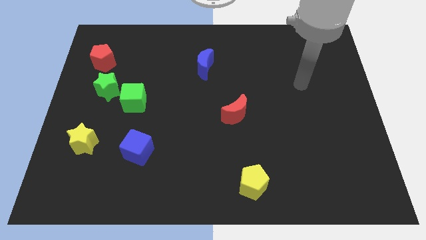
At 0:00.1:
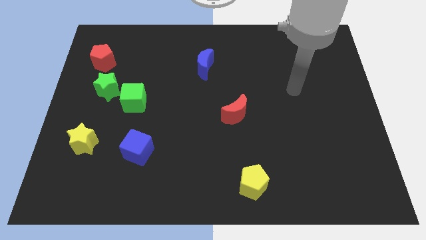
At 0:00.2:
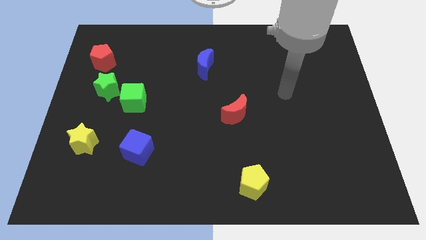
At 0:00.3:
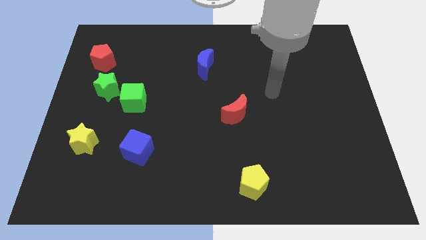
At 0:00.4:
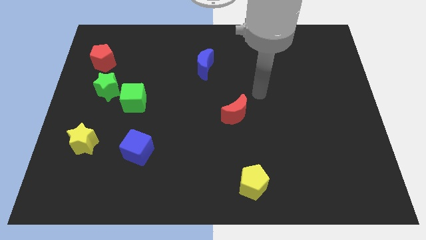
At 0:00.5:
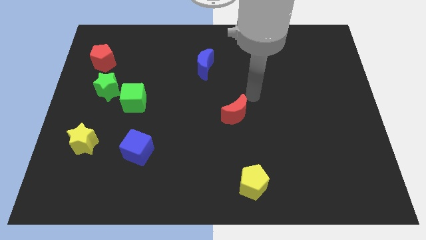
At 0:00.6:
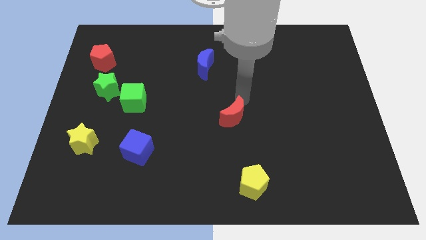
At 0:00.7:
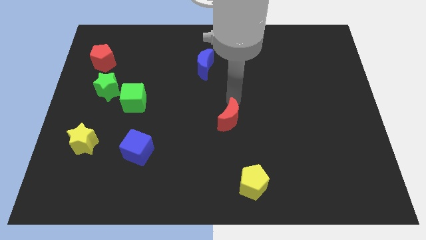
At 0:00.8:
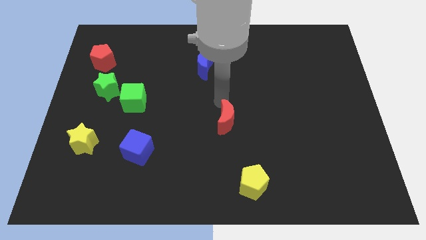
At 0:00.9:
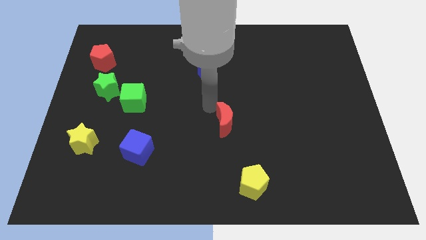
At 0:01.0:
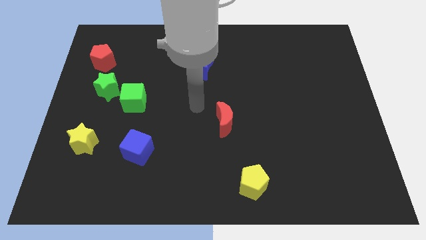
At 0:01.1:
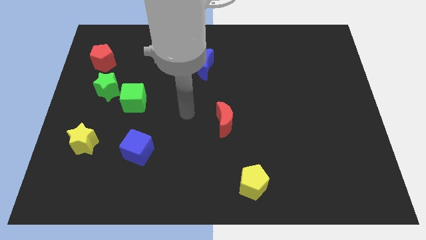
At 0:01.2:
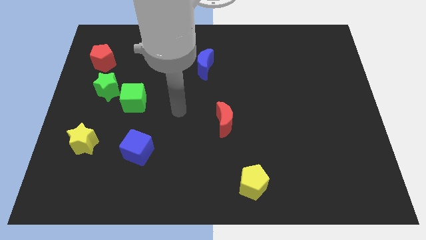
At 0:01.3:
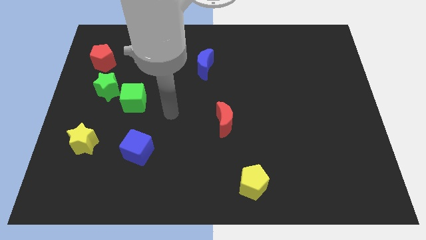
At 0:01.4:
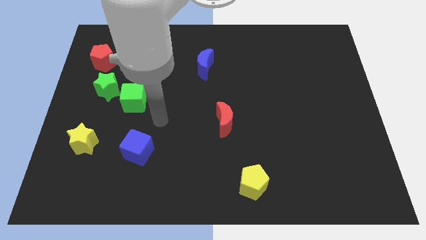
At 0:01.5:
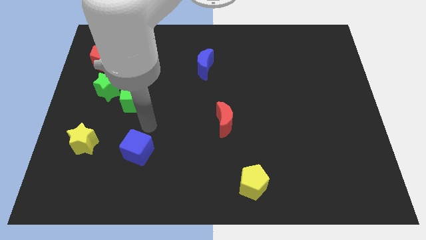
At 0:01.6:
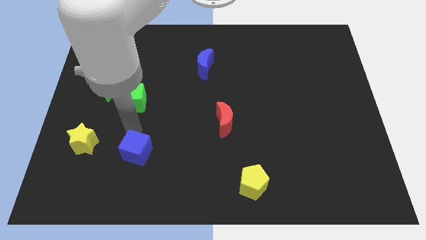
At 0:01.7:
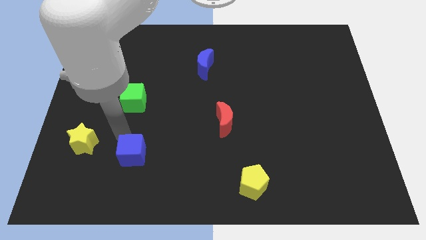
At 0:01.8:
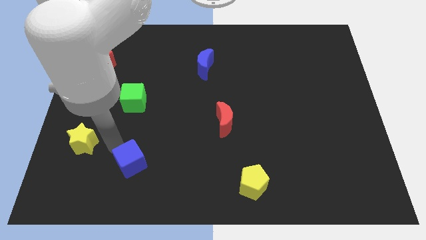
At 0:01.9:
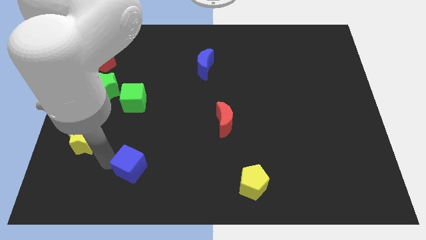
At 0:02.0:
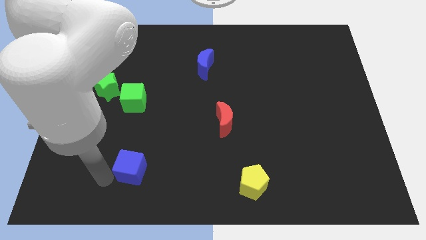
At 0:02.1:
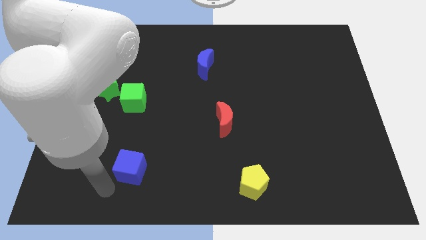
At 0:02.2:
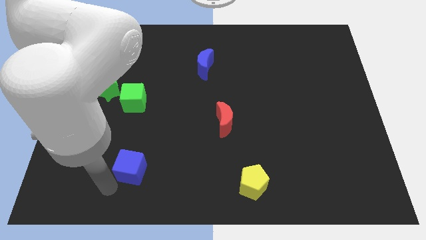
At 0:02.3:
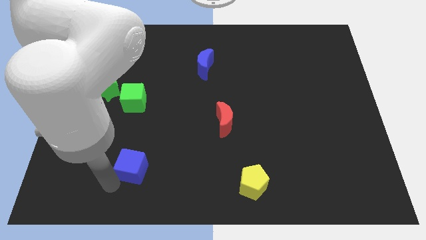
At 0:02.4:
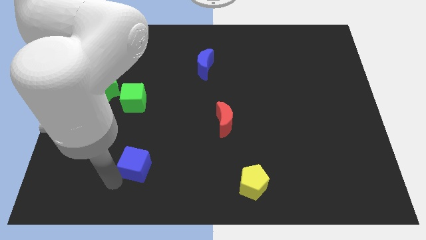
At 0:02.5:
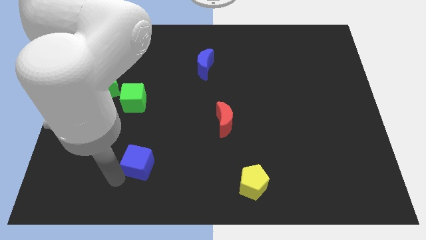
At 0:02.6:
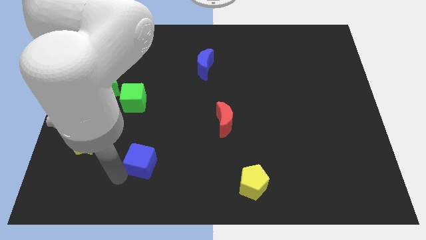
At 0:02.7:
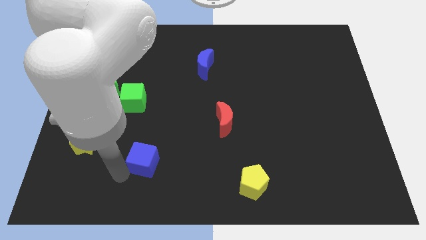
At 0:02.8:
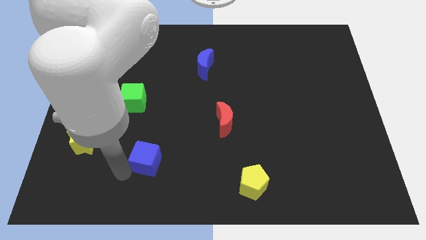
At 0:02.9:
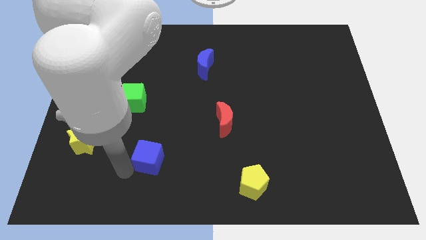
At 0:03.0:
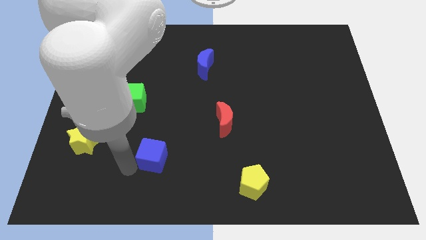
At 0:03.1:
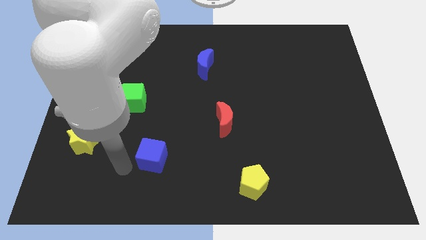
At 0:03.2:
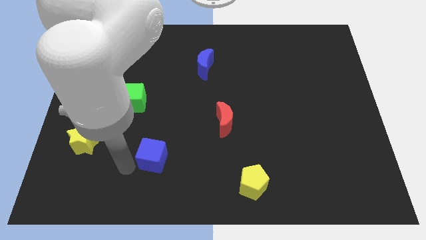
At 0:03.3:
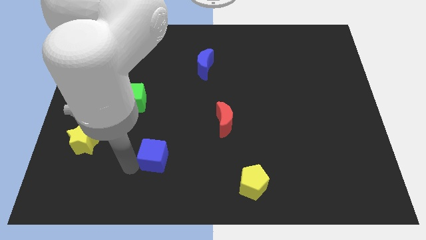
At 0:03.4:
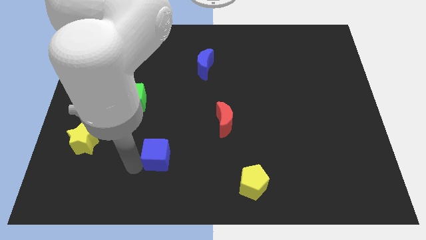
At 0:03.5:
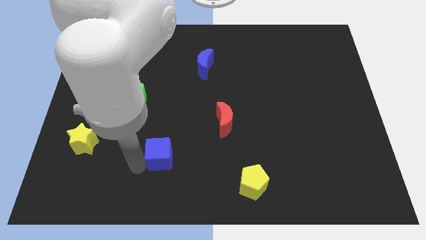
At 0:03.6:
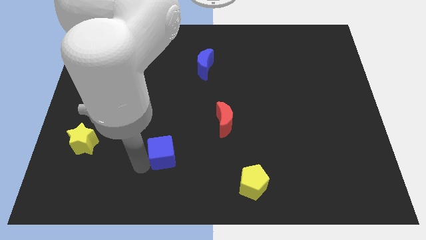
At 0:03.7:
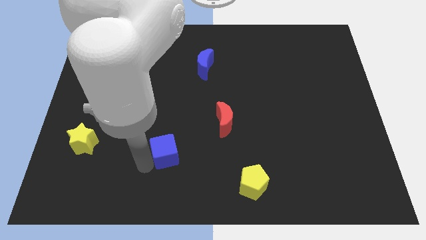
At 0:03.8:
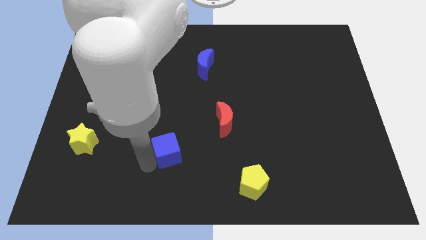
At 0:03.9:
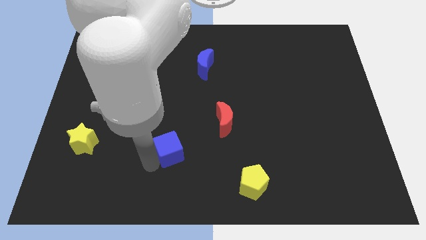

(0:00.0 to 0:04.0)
slightly move the blue cube right

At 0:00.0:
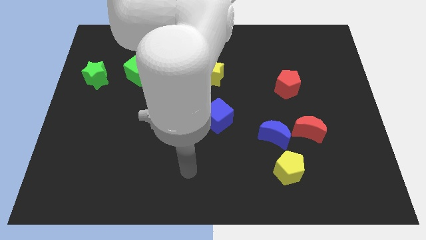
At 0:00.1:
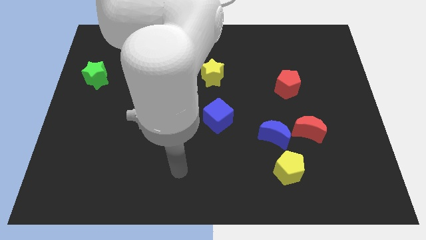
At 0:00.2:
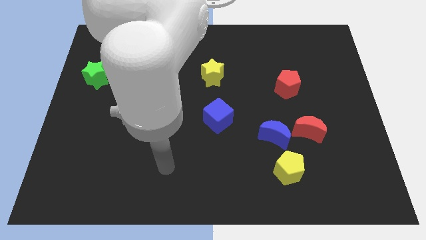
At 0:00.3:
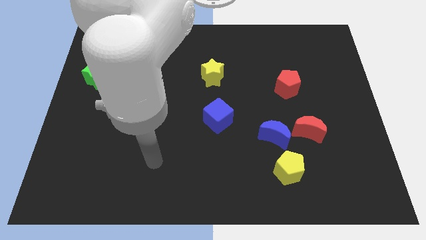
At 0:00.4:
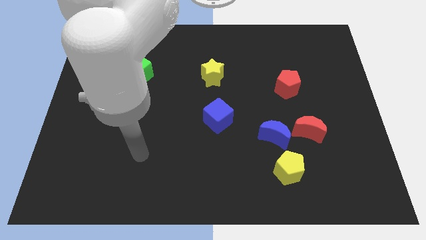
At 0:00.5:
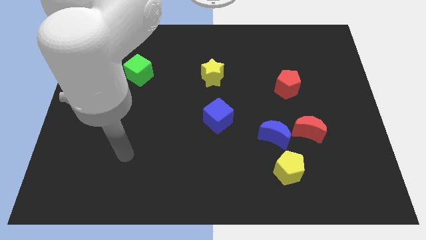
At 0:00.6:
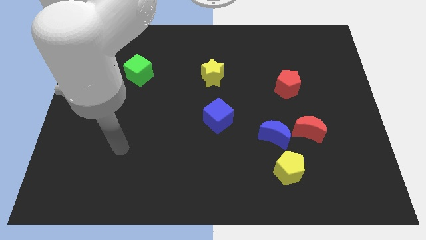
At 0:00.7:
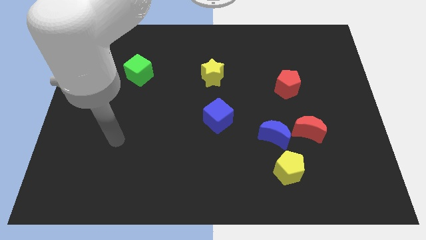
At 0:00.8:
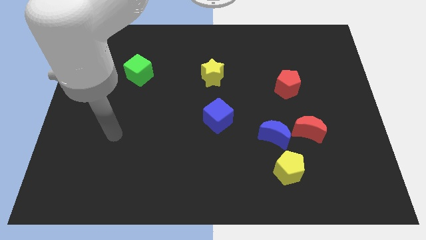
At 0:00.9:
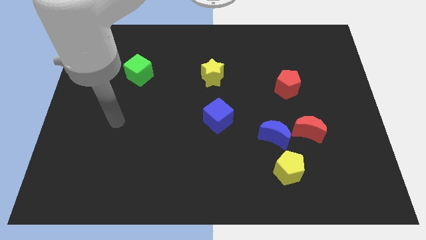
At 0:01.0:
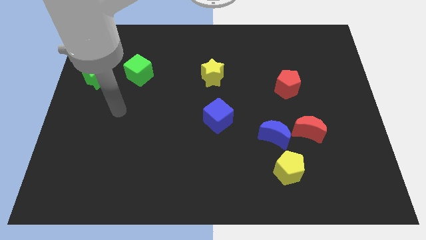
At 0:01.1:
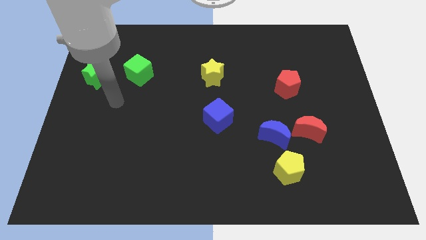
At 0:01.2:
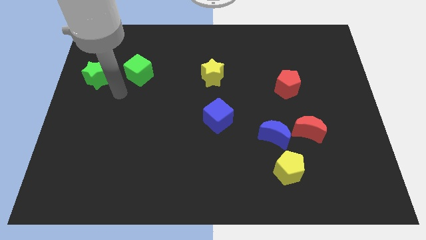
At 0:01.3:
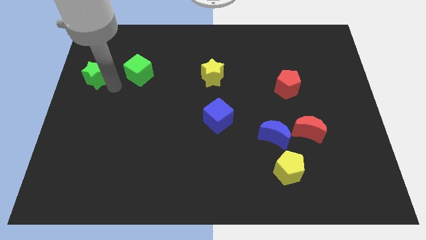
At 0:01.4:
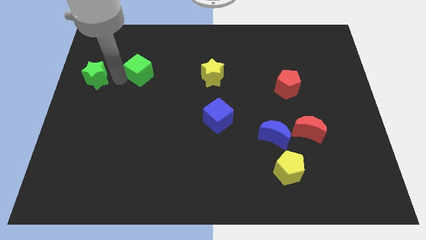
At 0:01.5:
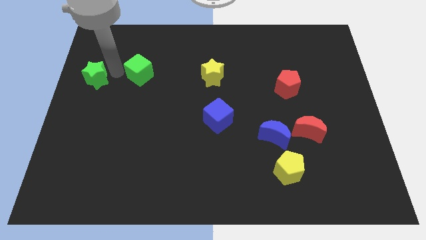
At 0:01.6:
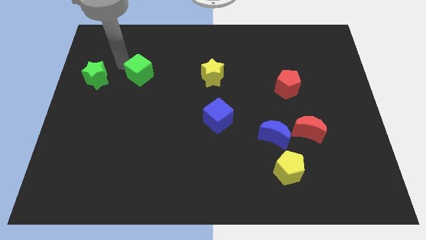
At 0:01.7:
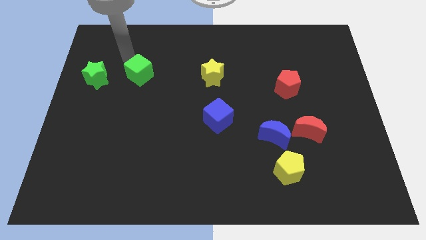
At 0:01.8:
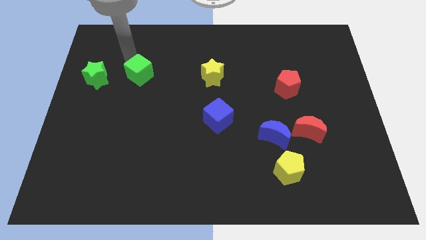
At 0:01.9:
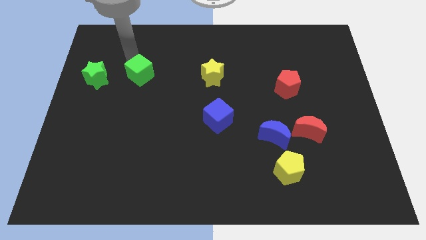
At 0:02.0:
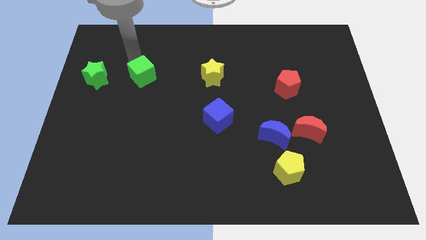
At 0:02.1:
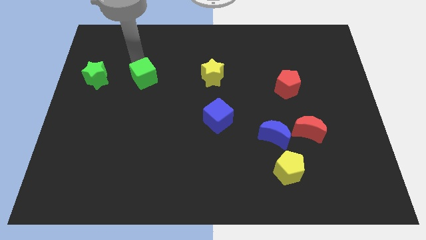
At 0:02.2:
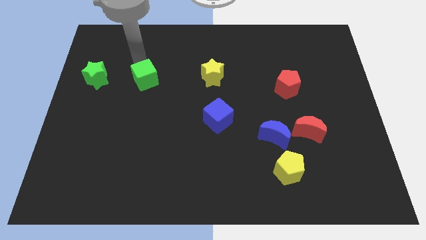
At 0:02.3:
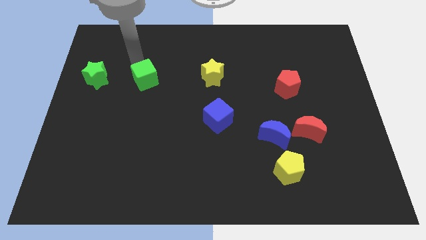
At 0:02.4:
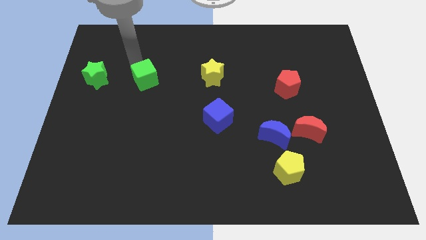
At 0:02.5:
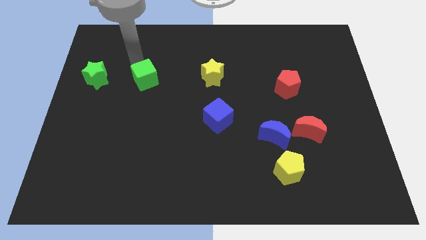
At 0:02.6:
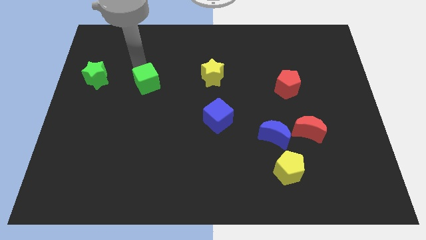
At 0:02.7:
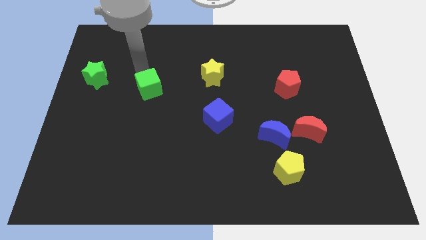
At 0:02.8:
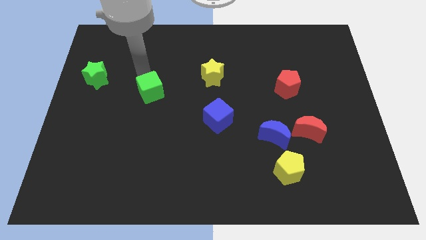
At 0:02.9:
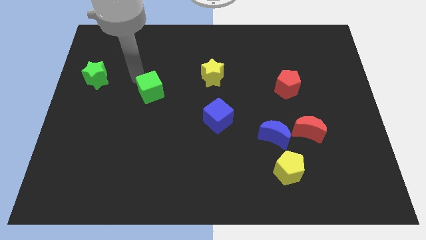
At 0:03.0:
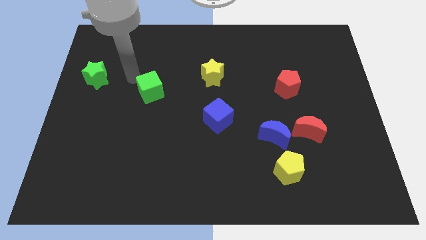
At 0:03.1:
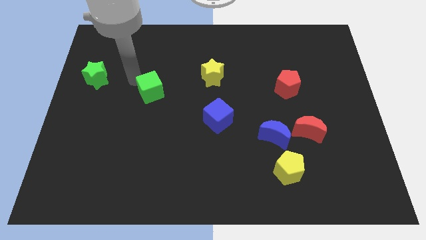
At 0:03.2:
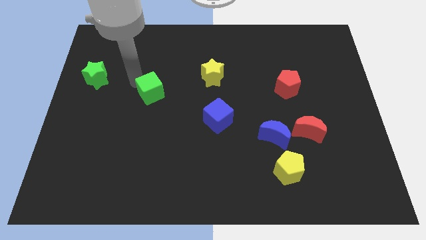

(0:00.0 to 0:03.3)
move the green cube downwards and right a bit

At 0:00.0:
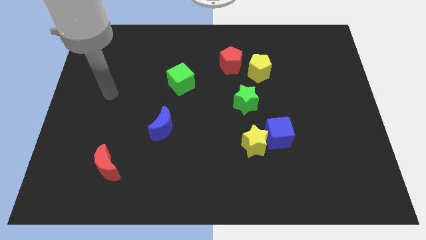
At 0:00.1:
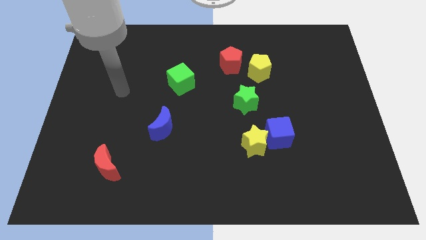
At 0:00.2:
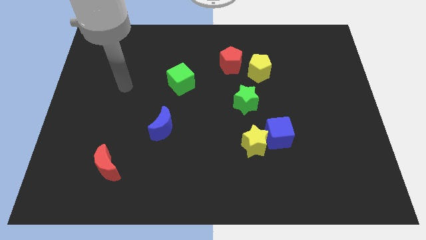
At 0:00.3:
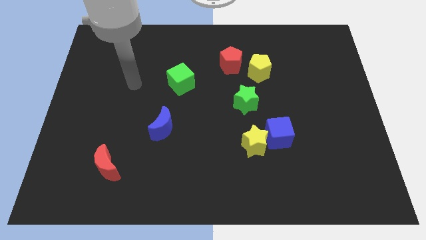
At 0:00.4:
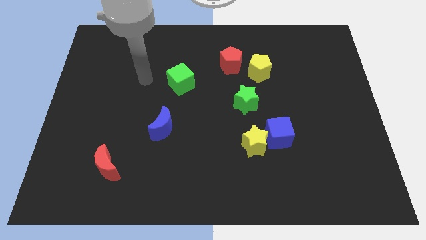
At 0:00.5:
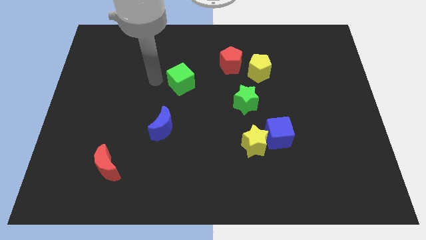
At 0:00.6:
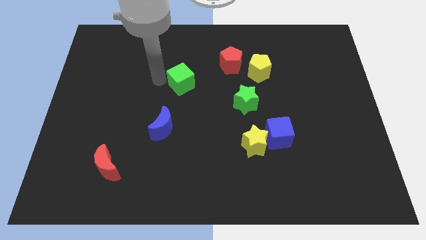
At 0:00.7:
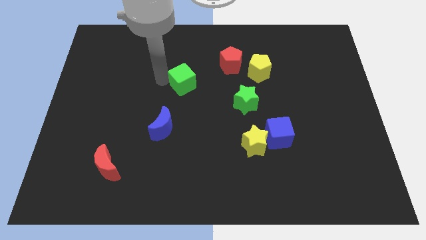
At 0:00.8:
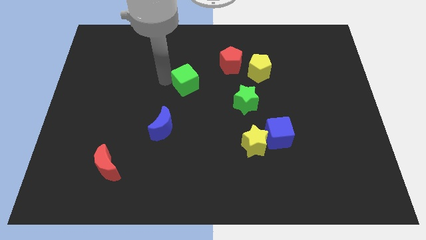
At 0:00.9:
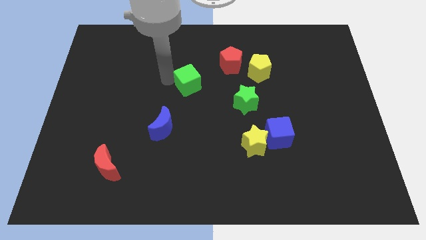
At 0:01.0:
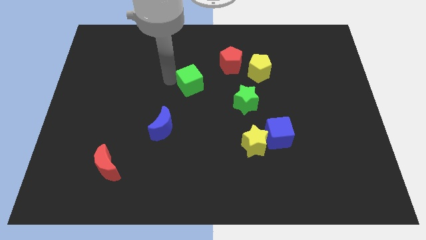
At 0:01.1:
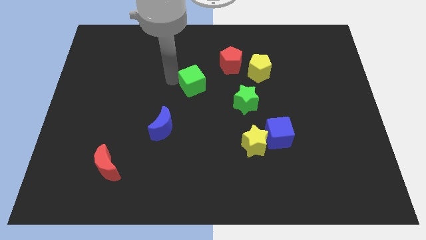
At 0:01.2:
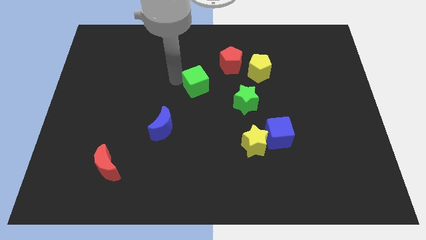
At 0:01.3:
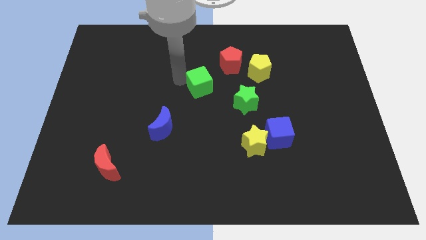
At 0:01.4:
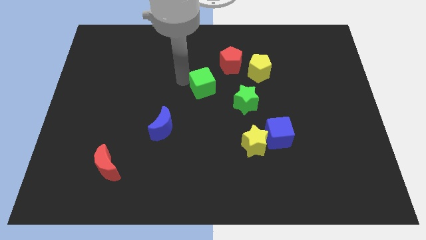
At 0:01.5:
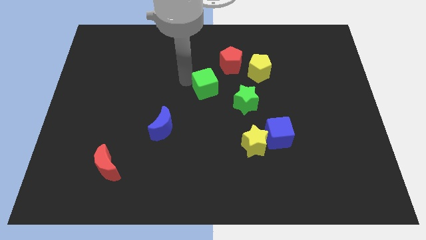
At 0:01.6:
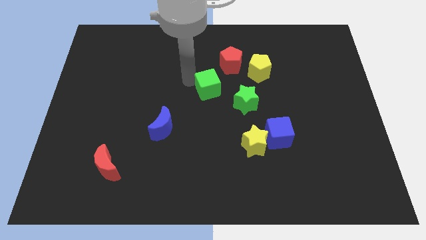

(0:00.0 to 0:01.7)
move the green cube a little bit right
